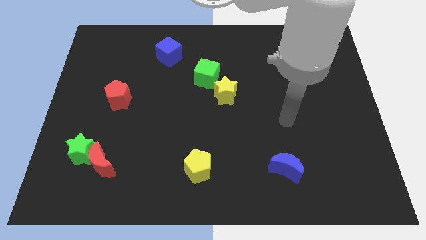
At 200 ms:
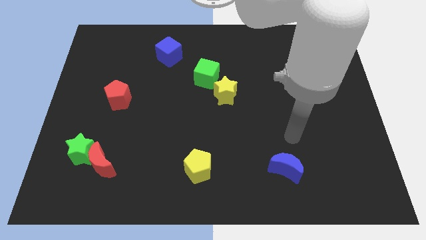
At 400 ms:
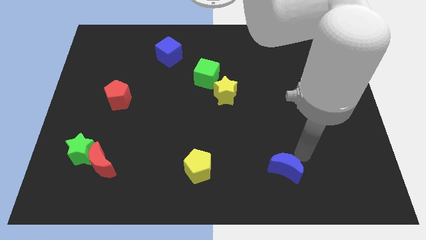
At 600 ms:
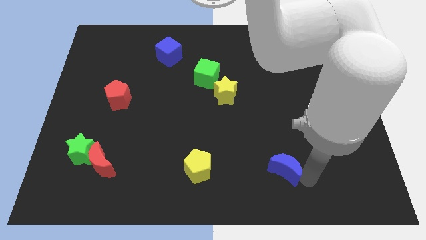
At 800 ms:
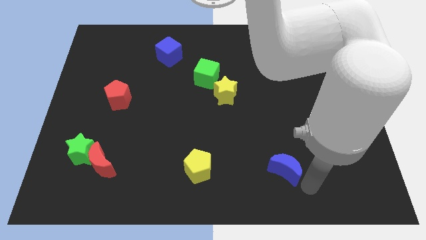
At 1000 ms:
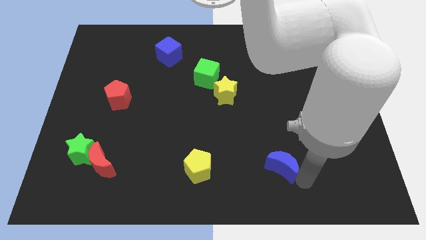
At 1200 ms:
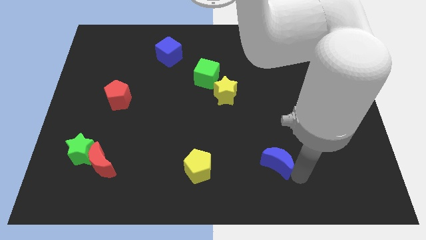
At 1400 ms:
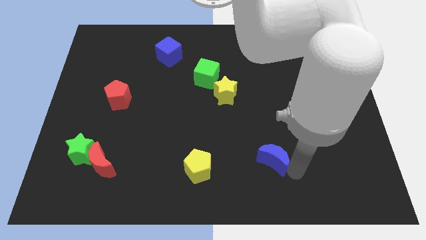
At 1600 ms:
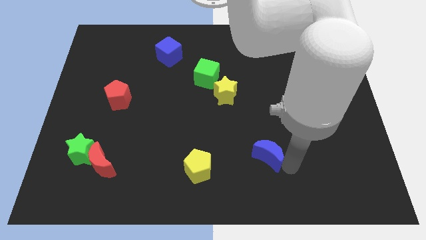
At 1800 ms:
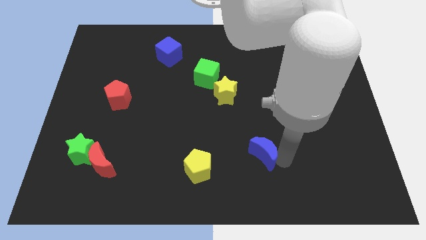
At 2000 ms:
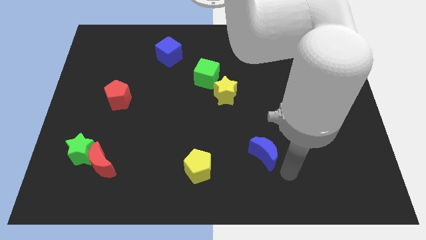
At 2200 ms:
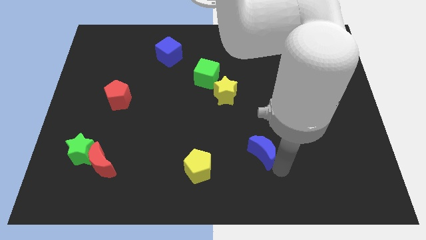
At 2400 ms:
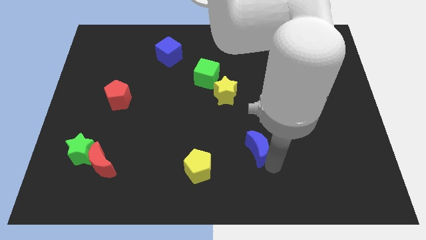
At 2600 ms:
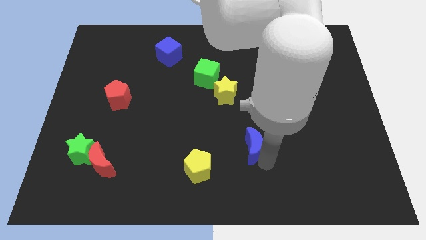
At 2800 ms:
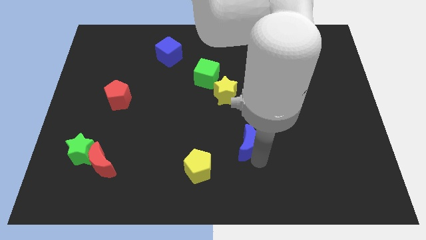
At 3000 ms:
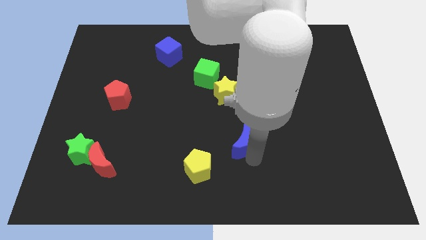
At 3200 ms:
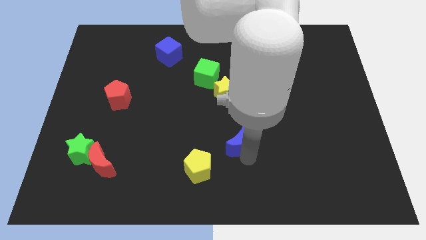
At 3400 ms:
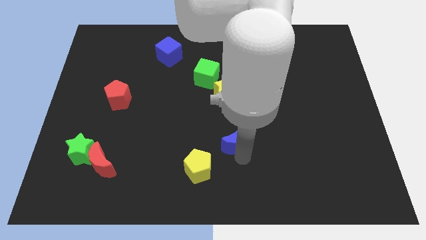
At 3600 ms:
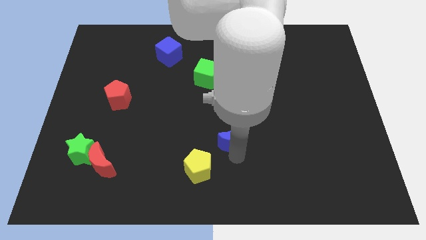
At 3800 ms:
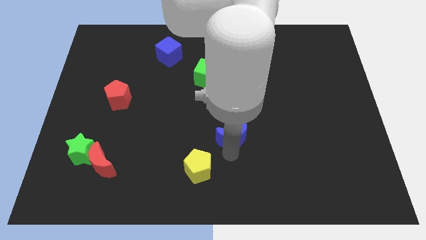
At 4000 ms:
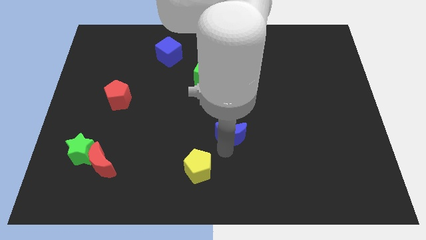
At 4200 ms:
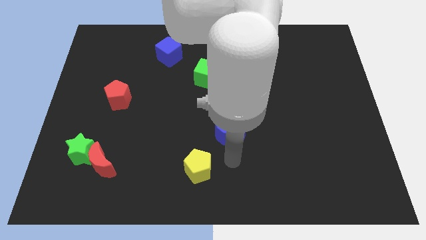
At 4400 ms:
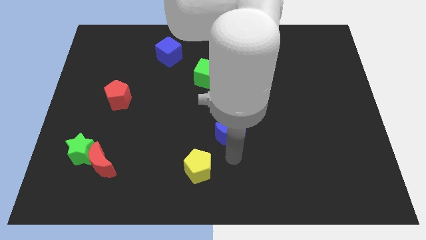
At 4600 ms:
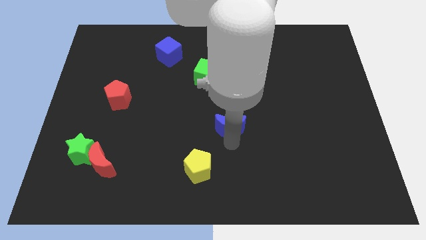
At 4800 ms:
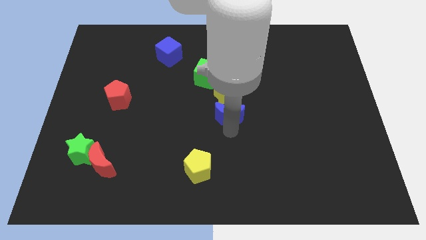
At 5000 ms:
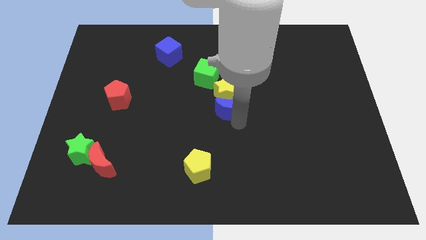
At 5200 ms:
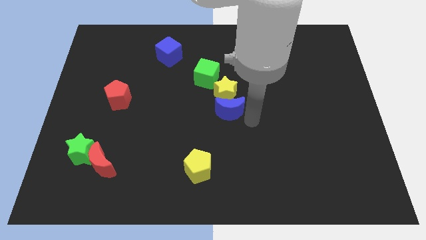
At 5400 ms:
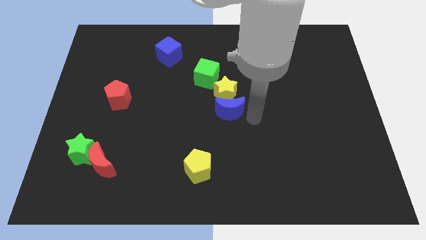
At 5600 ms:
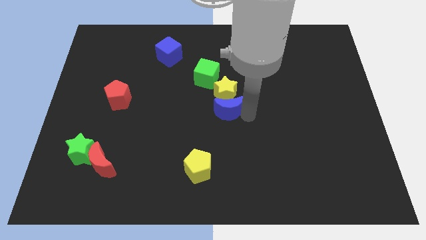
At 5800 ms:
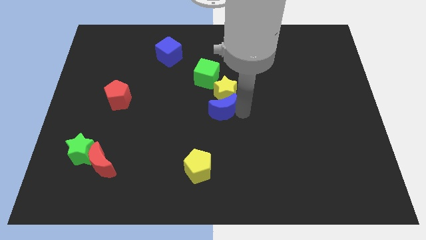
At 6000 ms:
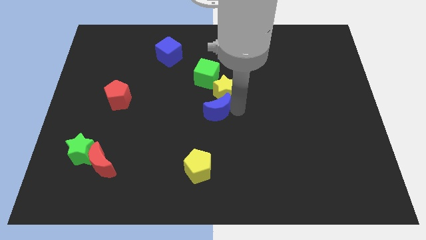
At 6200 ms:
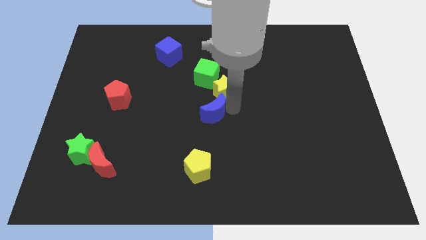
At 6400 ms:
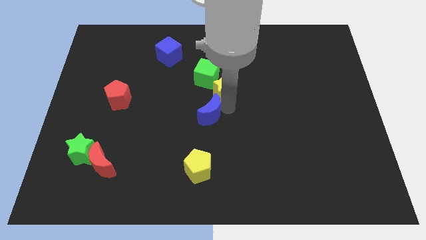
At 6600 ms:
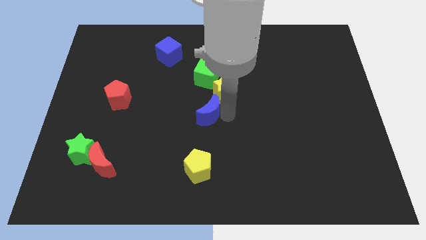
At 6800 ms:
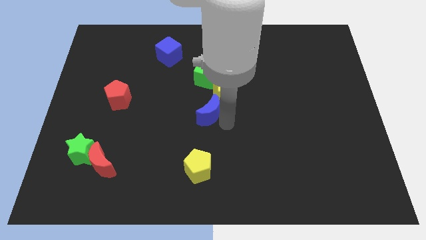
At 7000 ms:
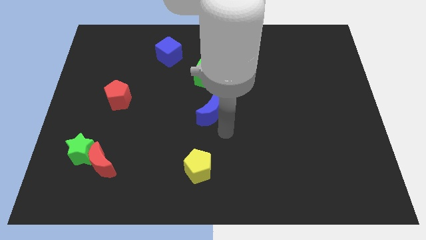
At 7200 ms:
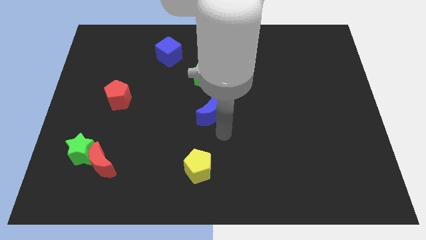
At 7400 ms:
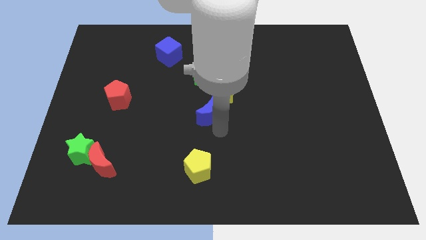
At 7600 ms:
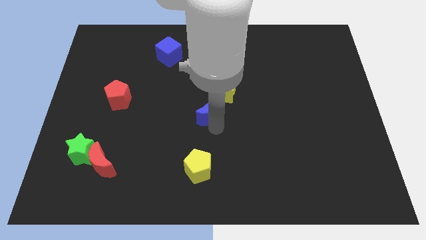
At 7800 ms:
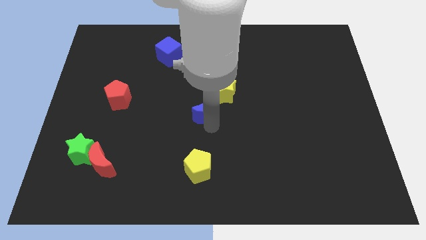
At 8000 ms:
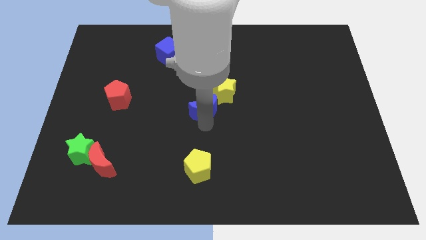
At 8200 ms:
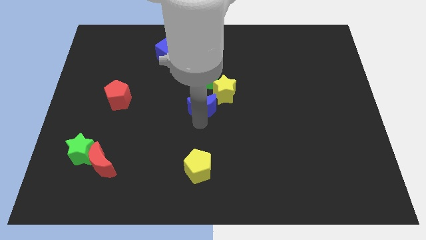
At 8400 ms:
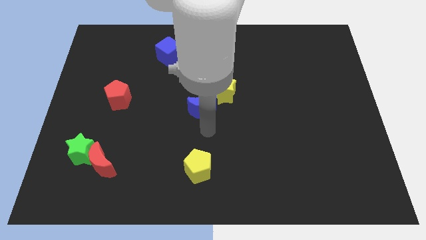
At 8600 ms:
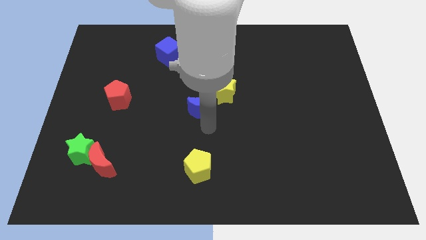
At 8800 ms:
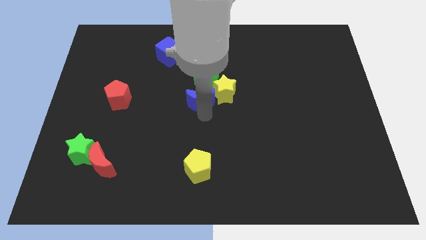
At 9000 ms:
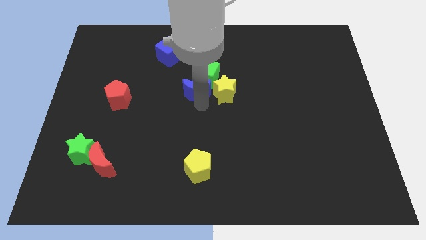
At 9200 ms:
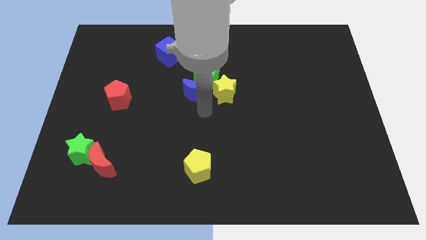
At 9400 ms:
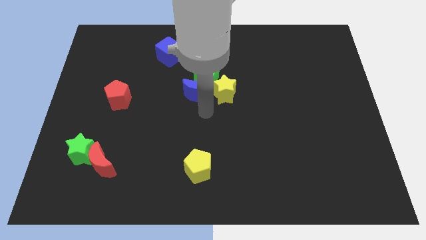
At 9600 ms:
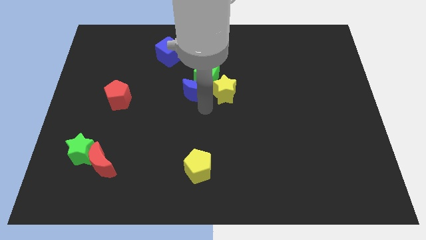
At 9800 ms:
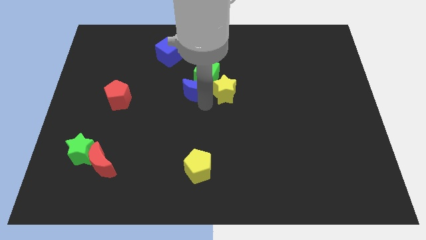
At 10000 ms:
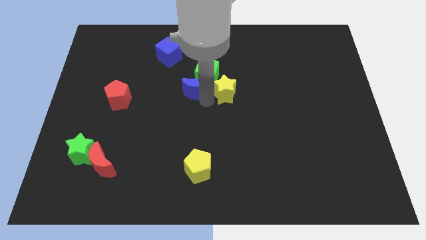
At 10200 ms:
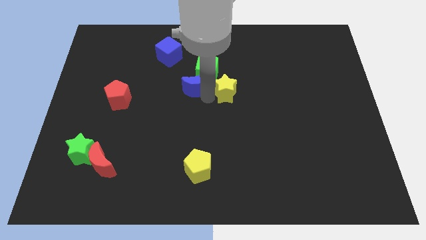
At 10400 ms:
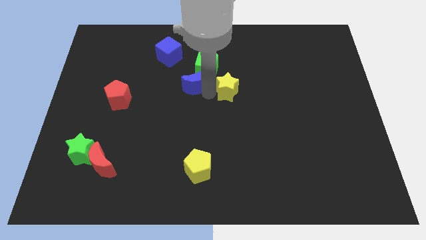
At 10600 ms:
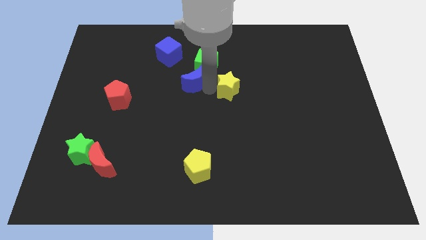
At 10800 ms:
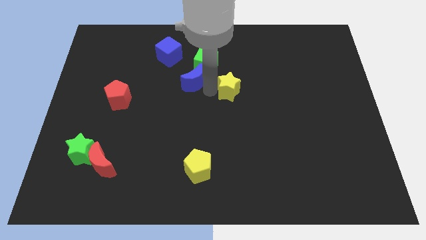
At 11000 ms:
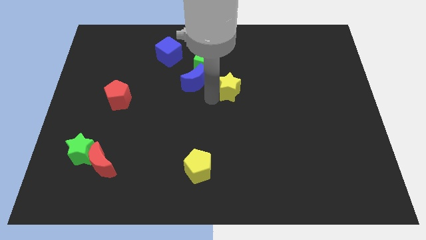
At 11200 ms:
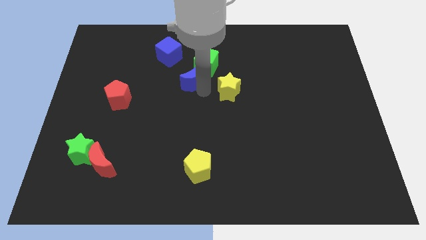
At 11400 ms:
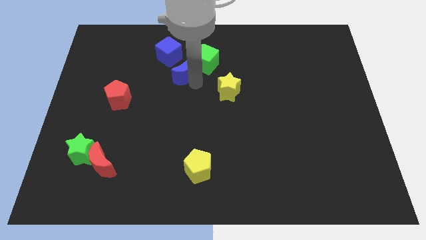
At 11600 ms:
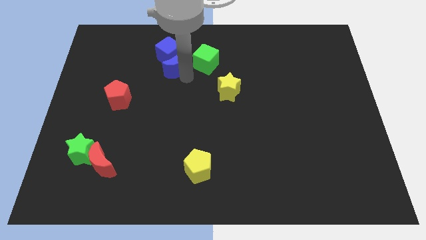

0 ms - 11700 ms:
push the blue moon close to the blue cube
